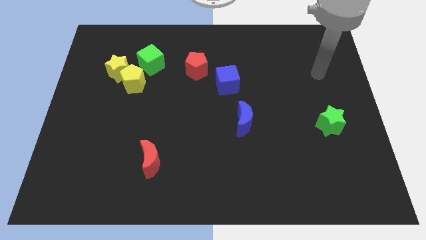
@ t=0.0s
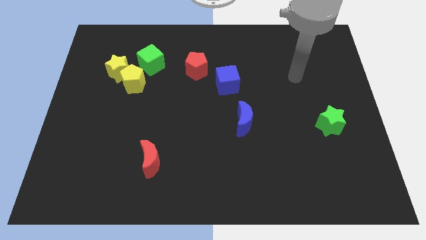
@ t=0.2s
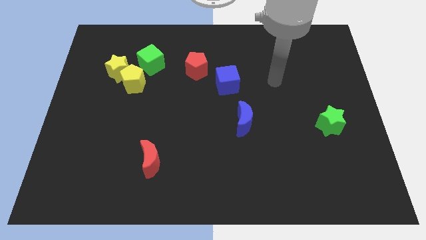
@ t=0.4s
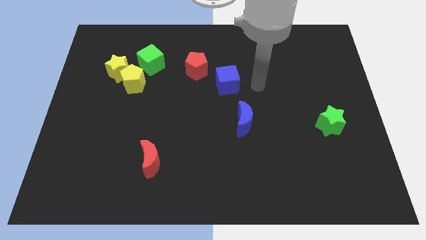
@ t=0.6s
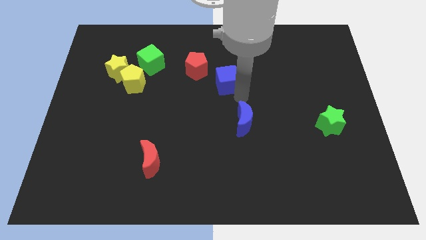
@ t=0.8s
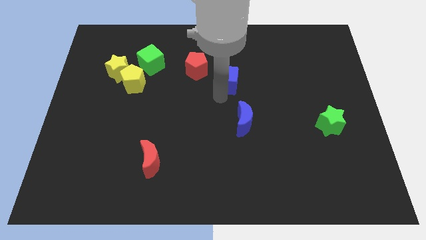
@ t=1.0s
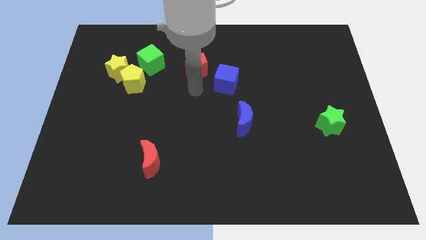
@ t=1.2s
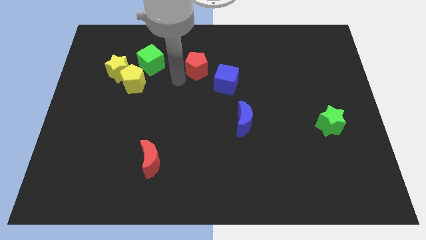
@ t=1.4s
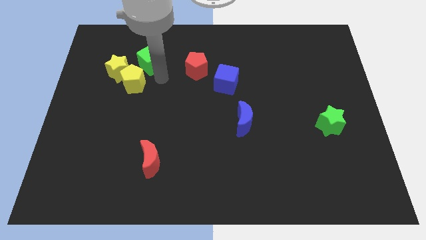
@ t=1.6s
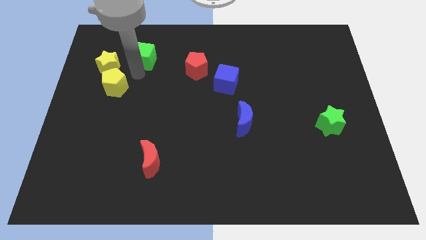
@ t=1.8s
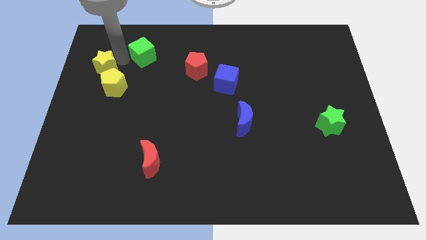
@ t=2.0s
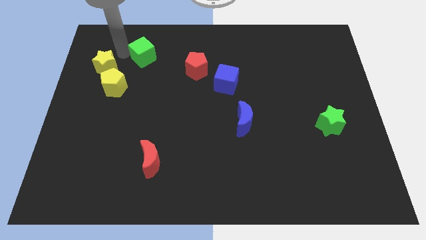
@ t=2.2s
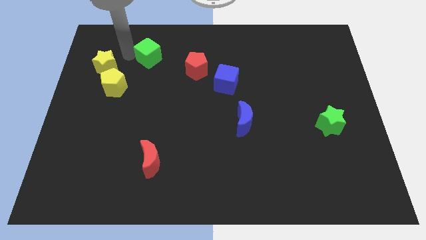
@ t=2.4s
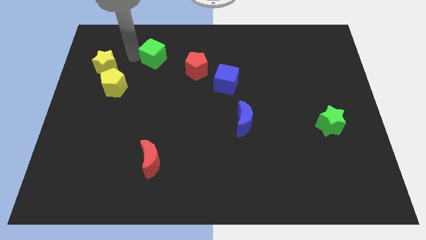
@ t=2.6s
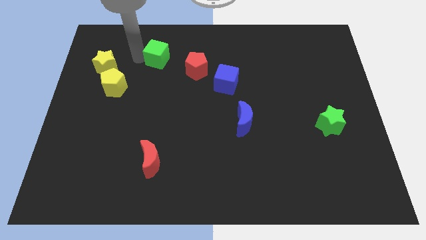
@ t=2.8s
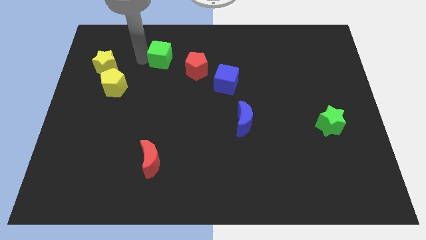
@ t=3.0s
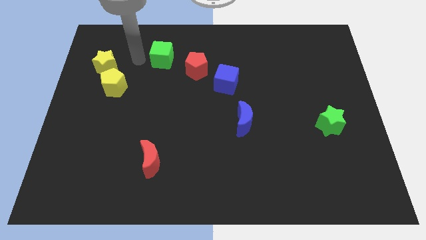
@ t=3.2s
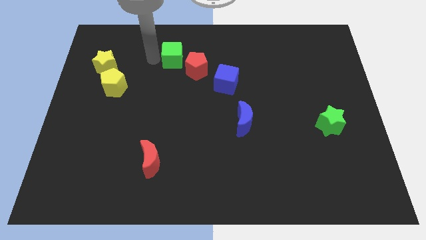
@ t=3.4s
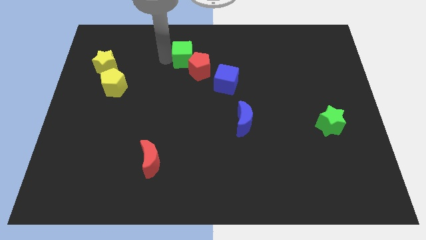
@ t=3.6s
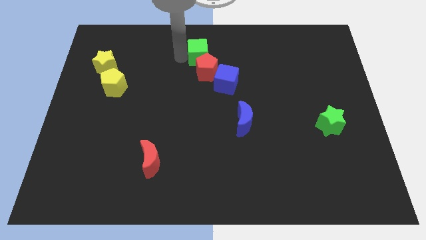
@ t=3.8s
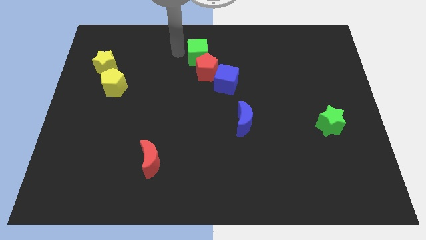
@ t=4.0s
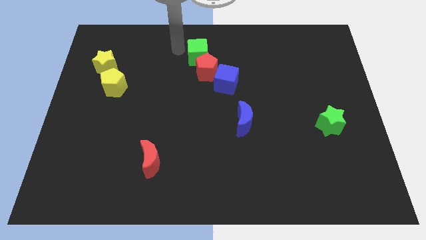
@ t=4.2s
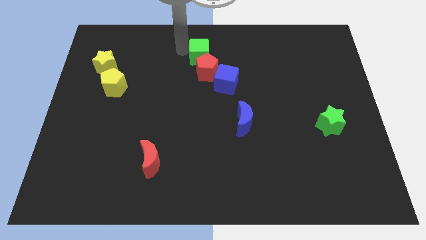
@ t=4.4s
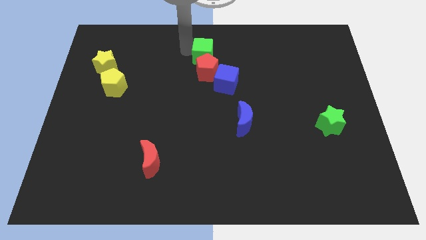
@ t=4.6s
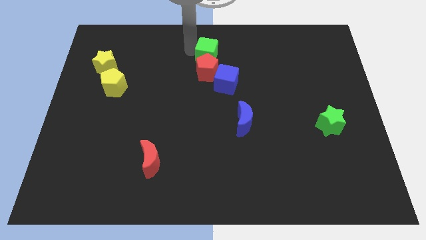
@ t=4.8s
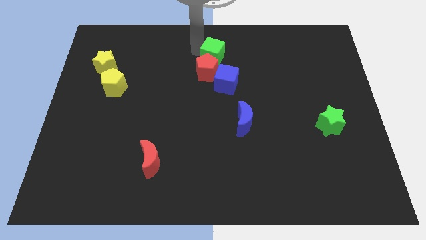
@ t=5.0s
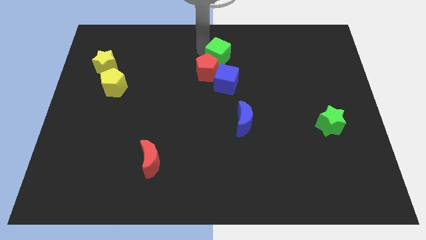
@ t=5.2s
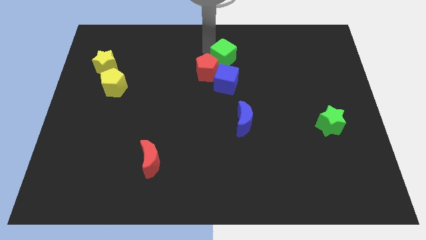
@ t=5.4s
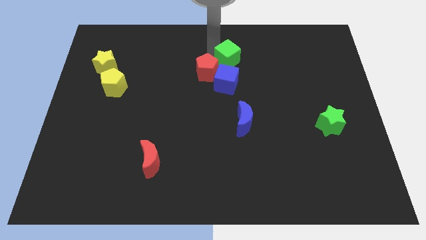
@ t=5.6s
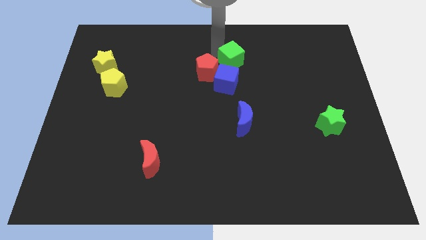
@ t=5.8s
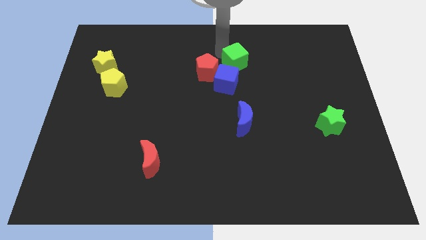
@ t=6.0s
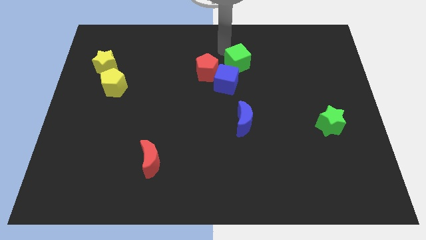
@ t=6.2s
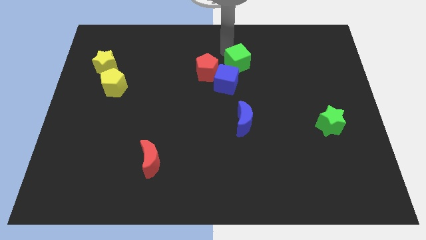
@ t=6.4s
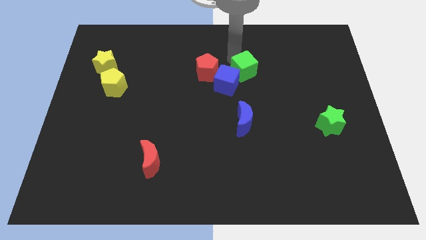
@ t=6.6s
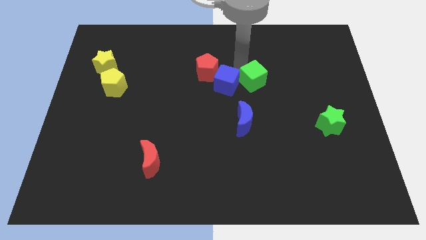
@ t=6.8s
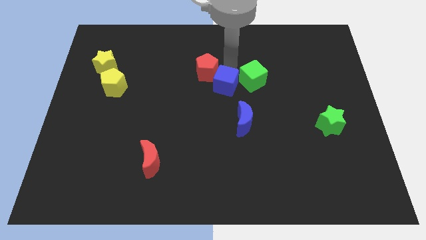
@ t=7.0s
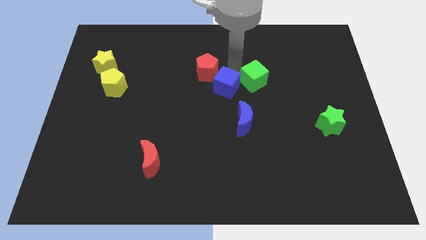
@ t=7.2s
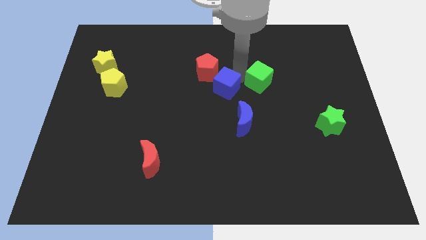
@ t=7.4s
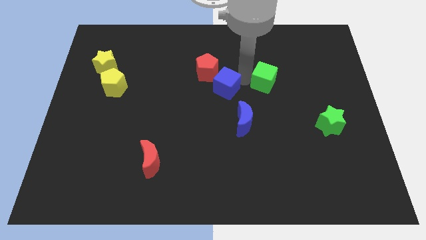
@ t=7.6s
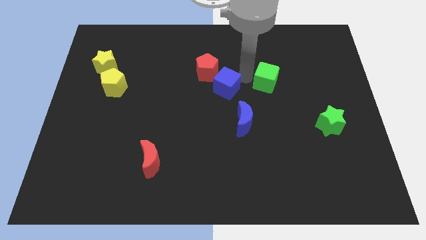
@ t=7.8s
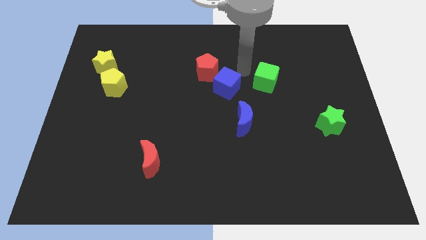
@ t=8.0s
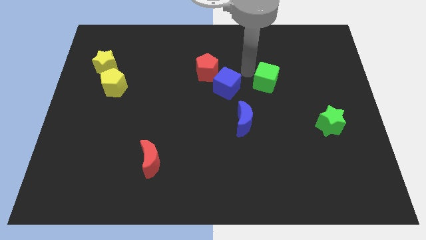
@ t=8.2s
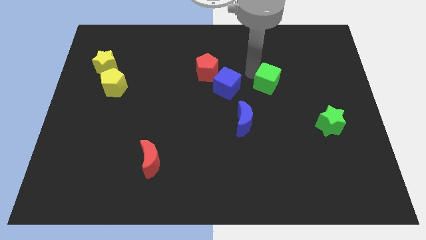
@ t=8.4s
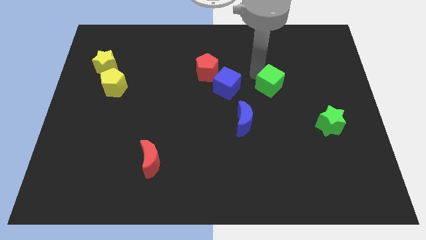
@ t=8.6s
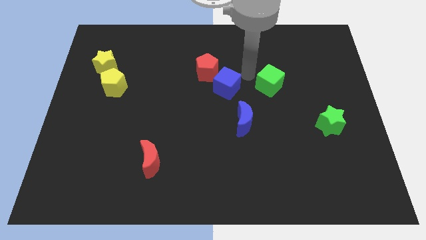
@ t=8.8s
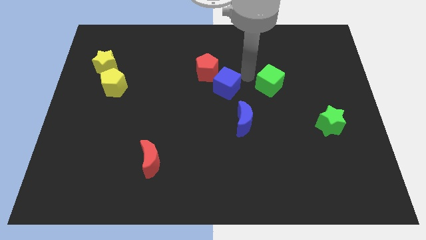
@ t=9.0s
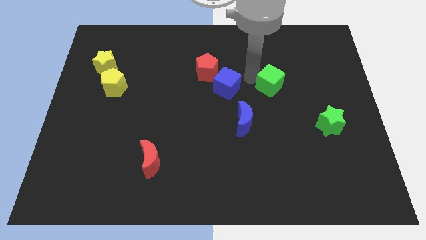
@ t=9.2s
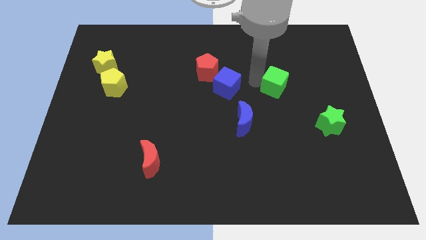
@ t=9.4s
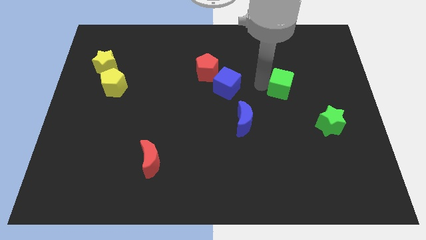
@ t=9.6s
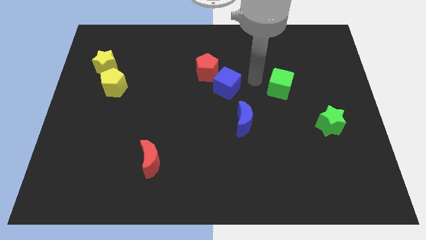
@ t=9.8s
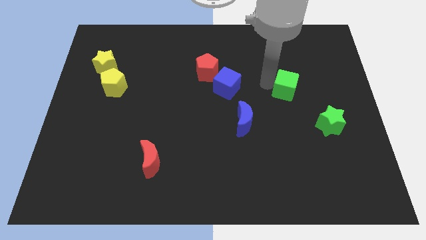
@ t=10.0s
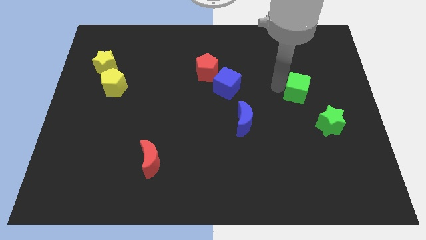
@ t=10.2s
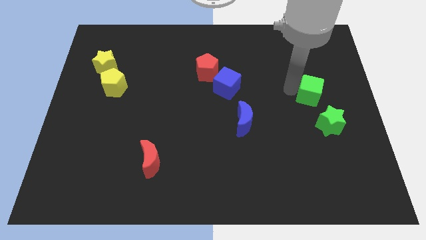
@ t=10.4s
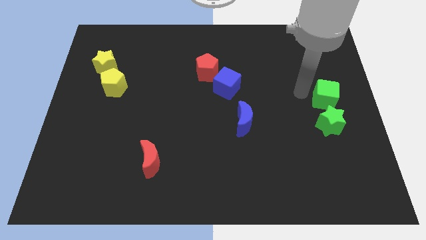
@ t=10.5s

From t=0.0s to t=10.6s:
move the green cube to the right side

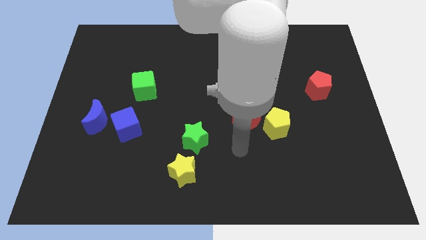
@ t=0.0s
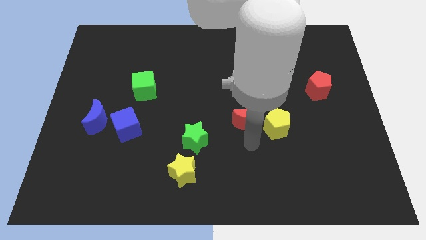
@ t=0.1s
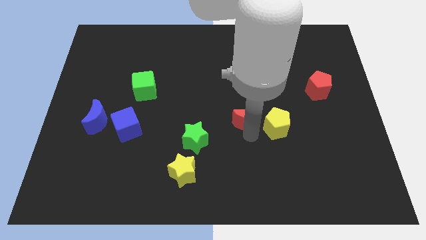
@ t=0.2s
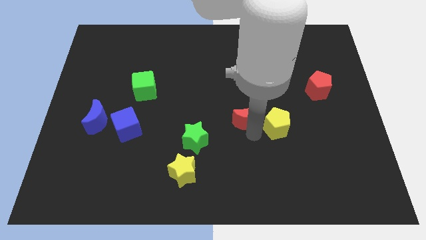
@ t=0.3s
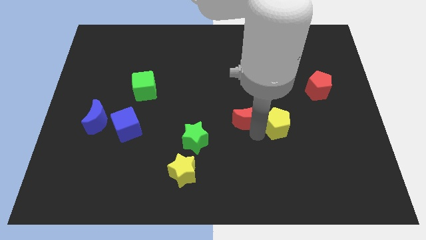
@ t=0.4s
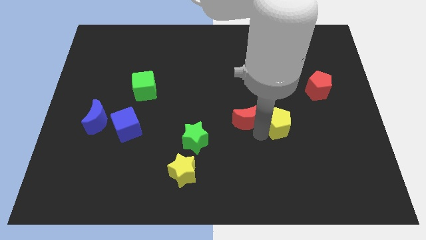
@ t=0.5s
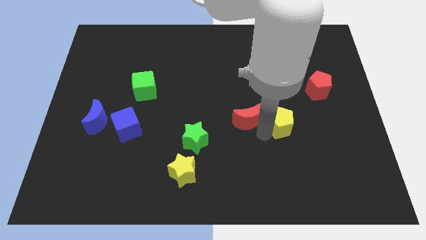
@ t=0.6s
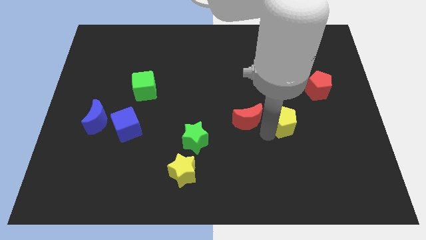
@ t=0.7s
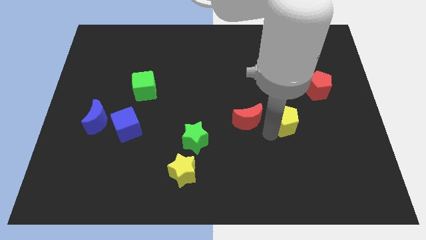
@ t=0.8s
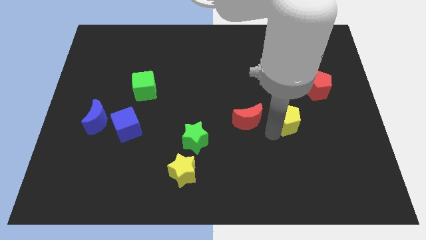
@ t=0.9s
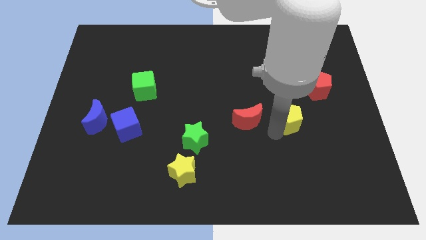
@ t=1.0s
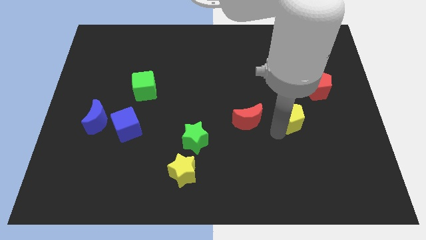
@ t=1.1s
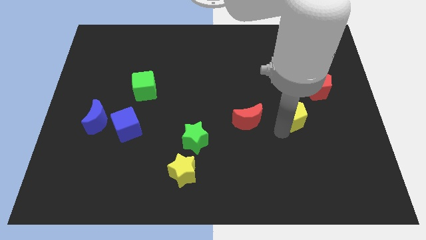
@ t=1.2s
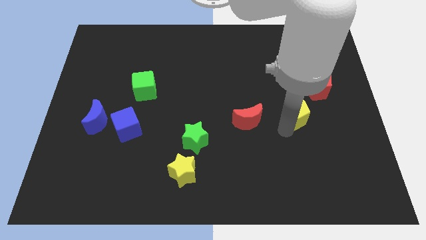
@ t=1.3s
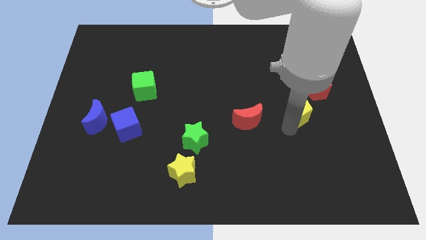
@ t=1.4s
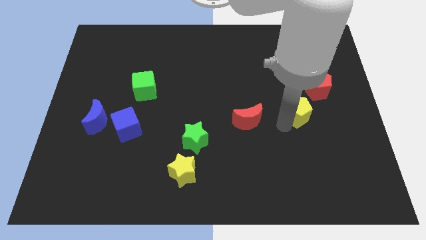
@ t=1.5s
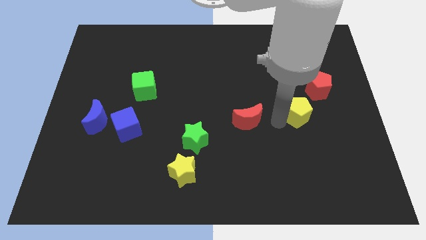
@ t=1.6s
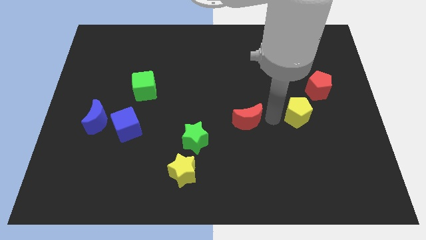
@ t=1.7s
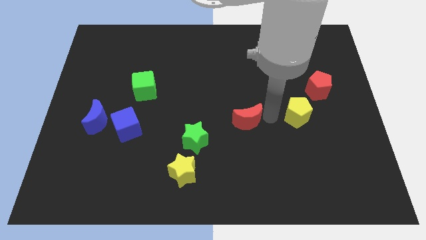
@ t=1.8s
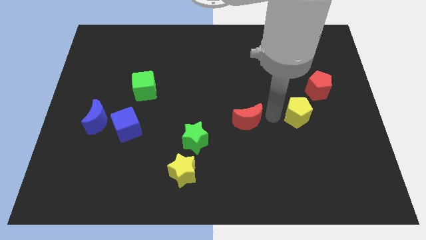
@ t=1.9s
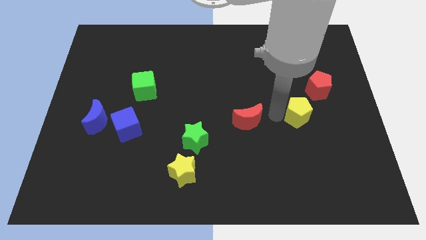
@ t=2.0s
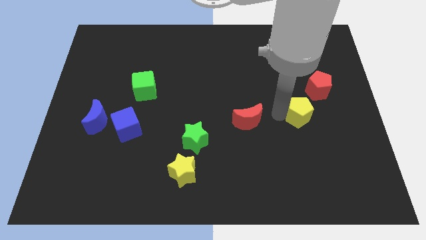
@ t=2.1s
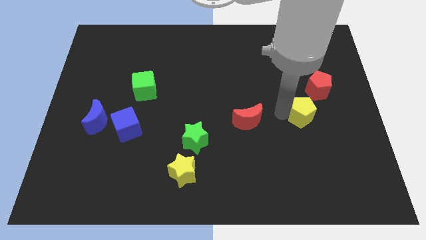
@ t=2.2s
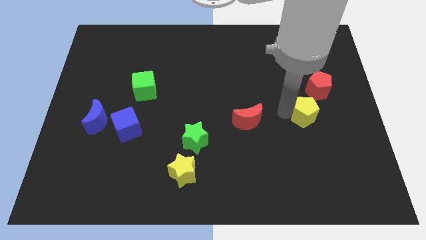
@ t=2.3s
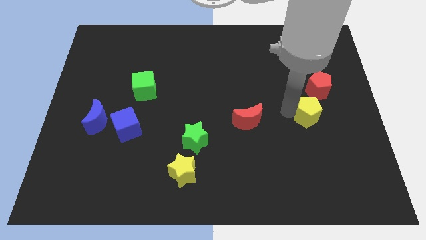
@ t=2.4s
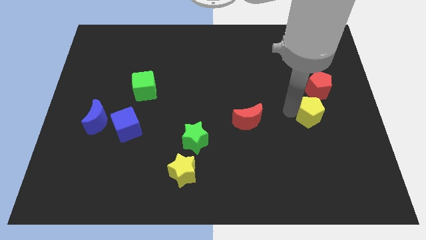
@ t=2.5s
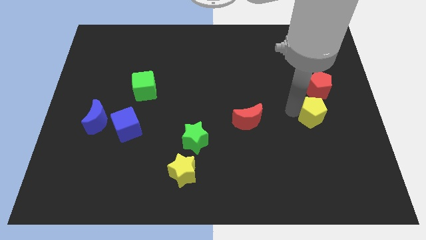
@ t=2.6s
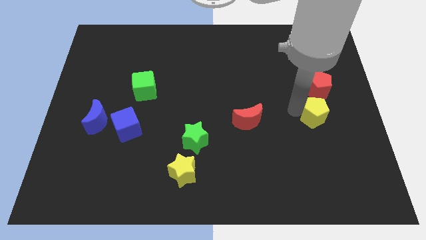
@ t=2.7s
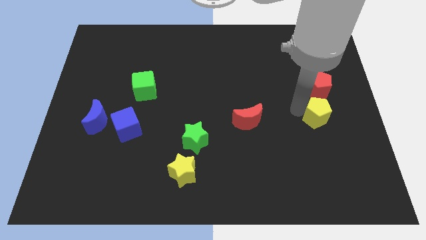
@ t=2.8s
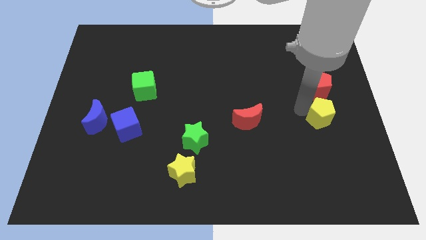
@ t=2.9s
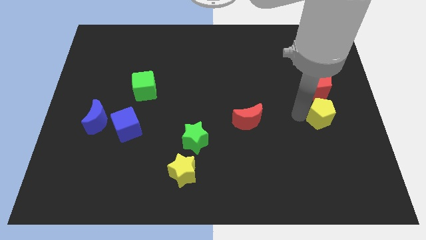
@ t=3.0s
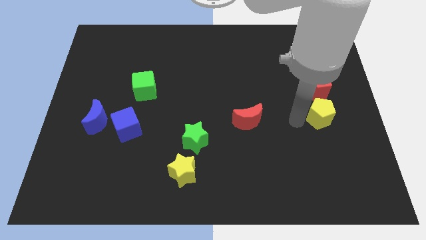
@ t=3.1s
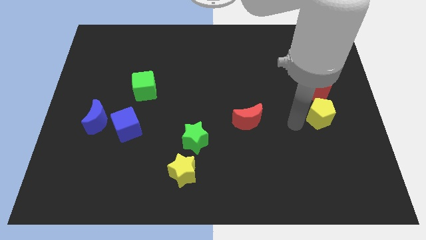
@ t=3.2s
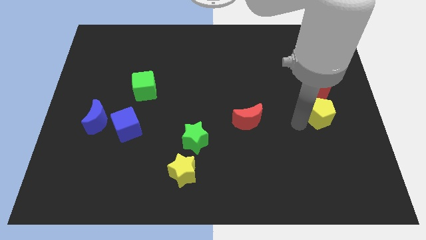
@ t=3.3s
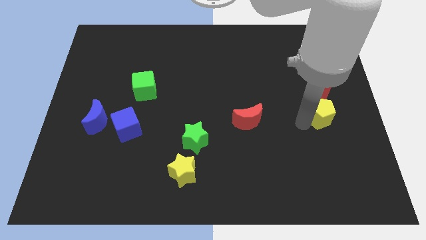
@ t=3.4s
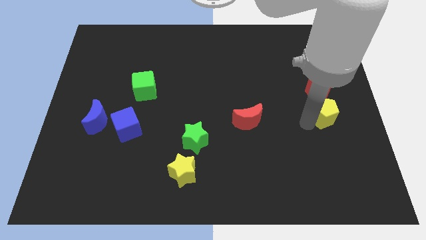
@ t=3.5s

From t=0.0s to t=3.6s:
push the yellow pentagon to the center right
